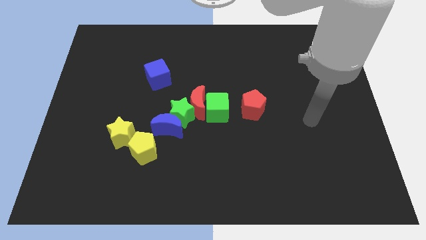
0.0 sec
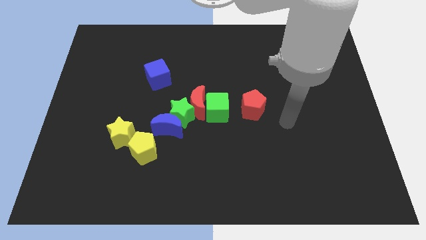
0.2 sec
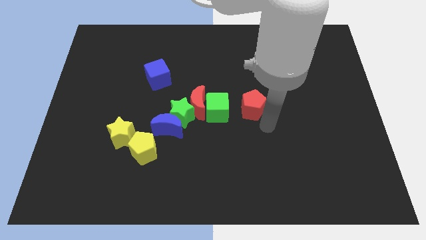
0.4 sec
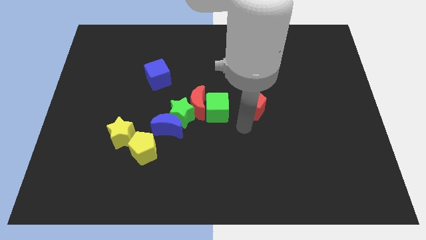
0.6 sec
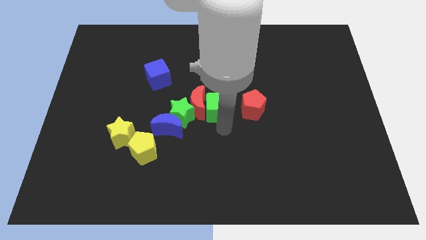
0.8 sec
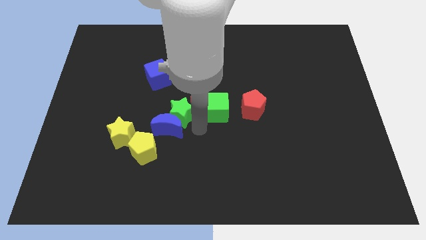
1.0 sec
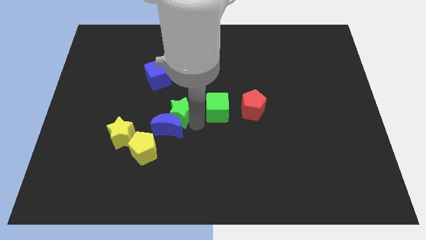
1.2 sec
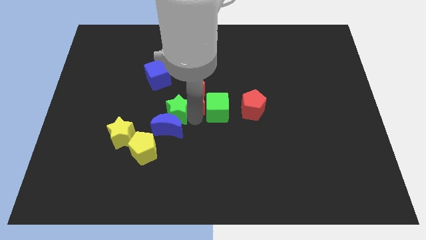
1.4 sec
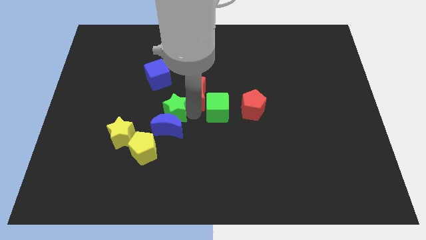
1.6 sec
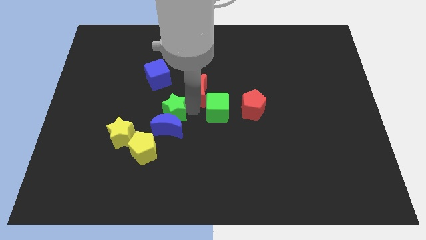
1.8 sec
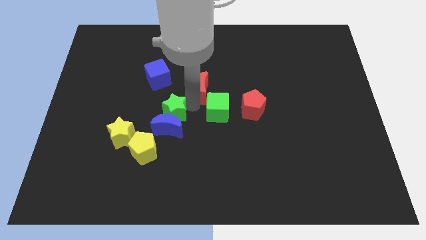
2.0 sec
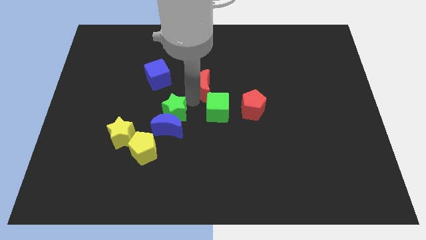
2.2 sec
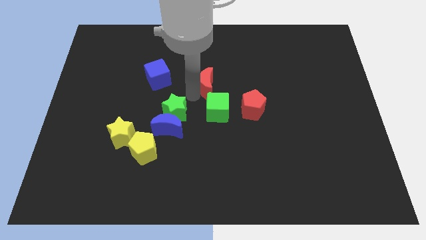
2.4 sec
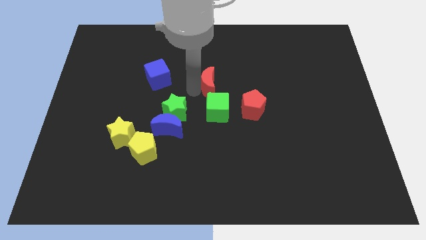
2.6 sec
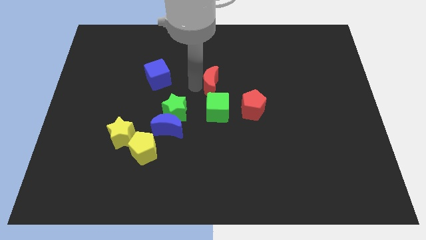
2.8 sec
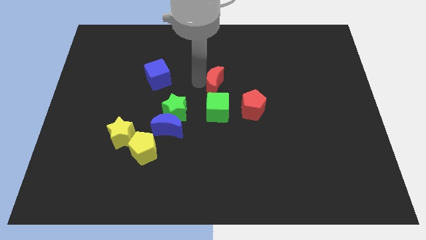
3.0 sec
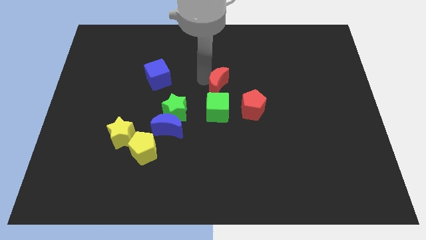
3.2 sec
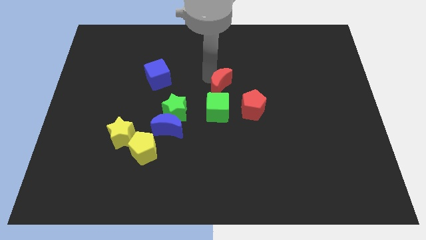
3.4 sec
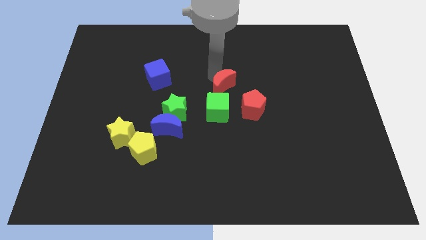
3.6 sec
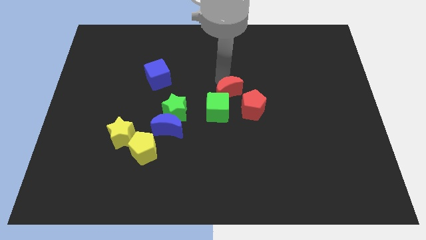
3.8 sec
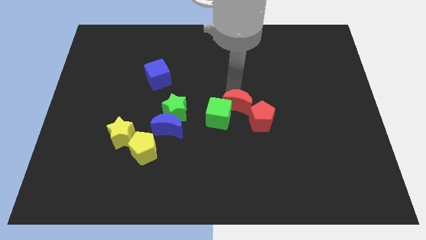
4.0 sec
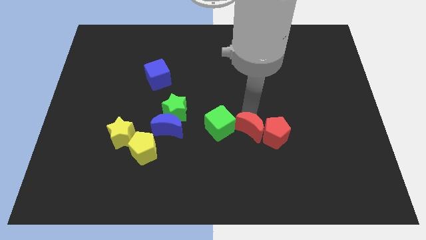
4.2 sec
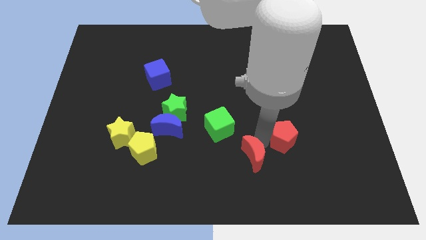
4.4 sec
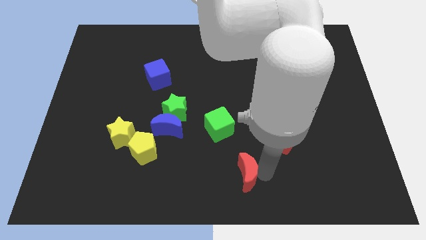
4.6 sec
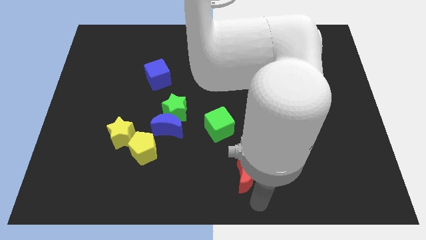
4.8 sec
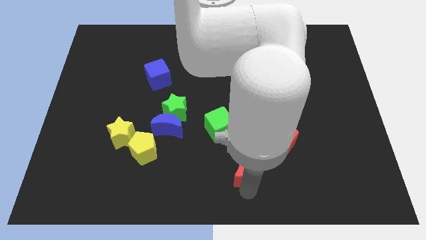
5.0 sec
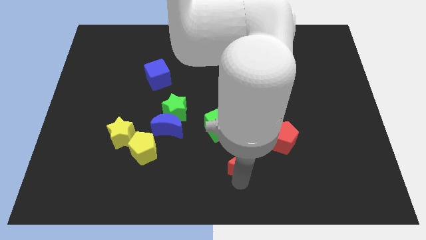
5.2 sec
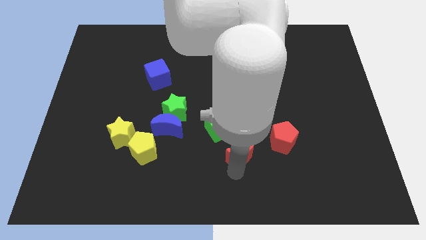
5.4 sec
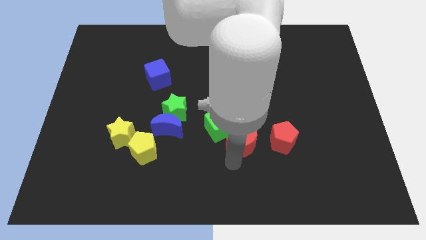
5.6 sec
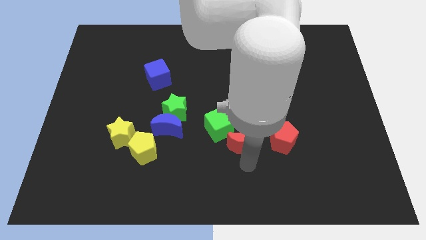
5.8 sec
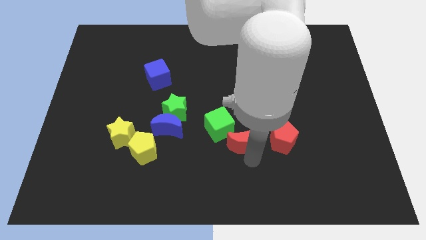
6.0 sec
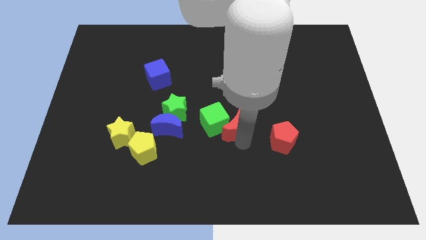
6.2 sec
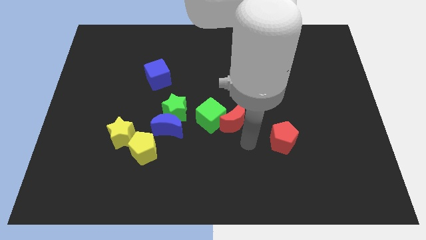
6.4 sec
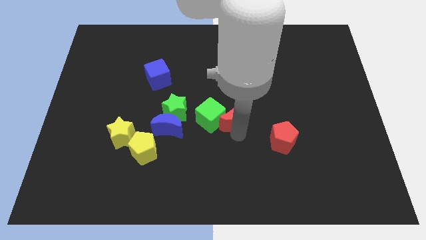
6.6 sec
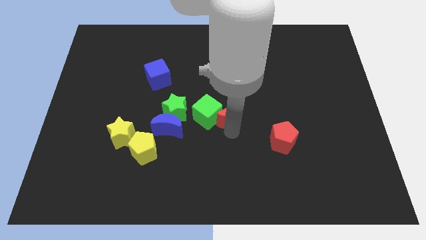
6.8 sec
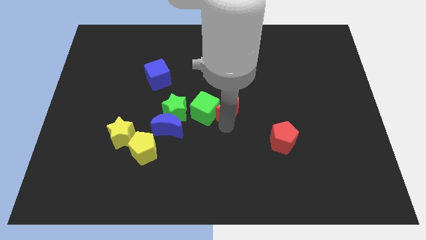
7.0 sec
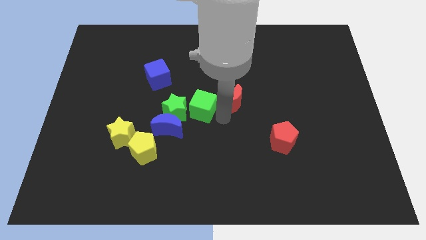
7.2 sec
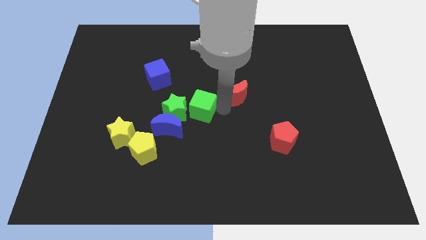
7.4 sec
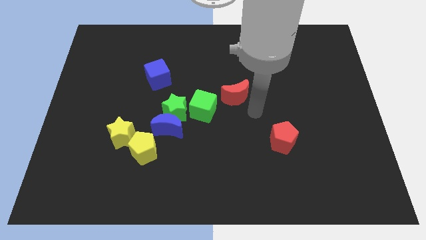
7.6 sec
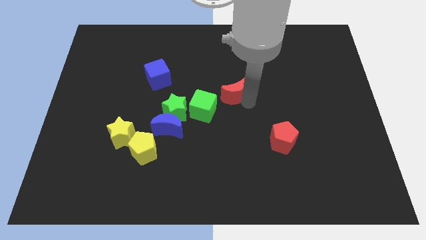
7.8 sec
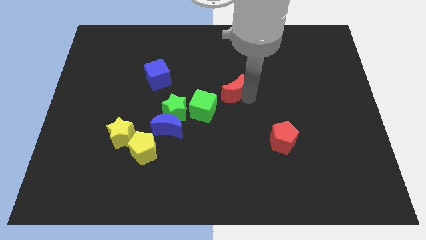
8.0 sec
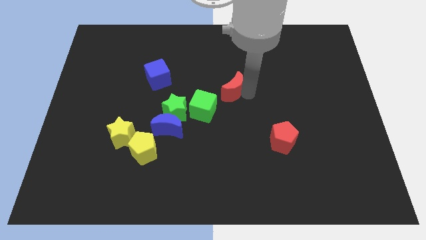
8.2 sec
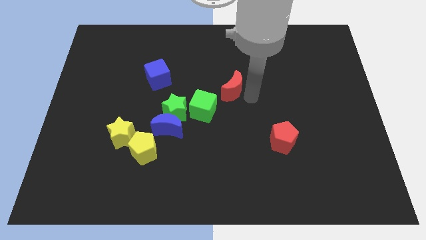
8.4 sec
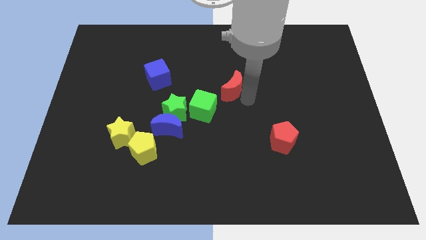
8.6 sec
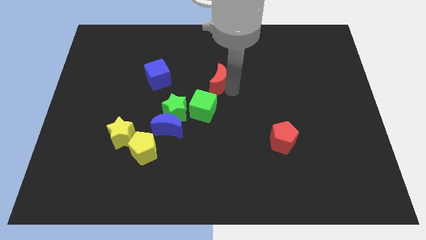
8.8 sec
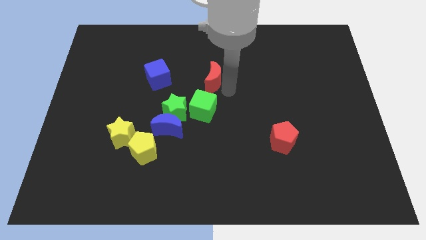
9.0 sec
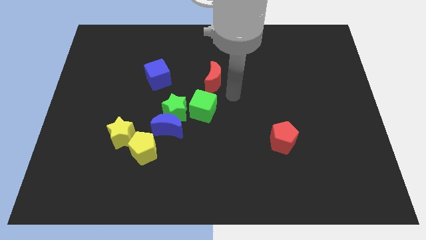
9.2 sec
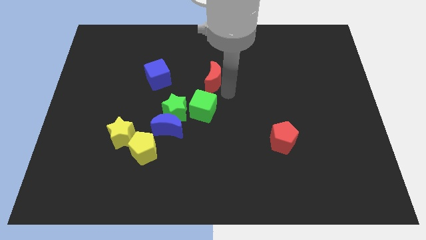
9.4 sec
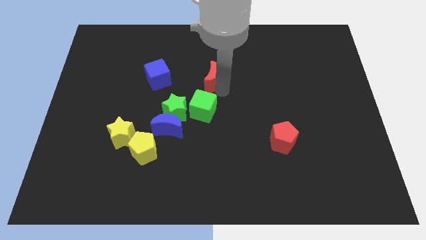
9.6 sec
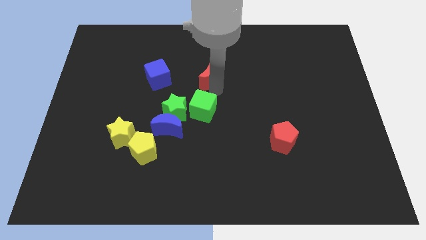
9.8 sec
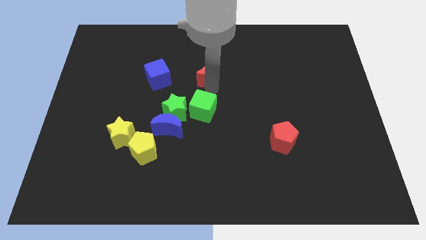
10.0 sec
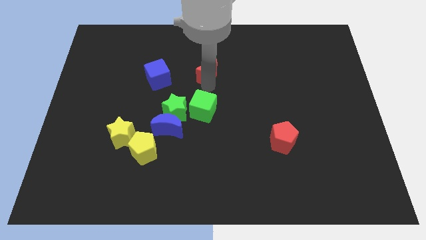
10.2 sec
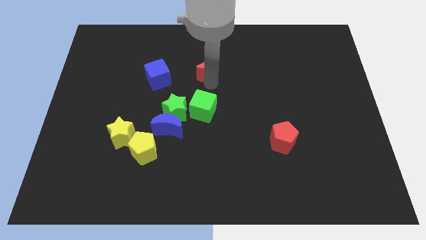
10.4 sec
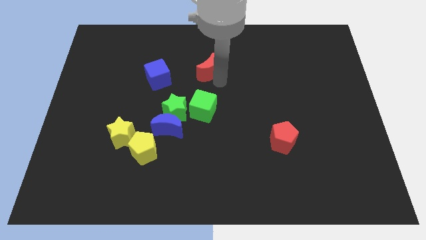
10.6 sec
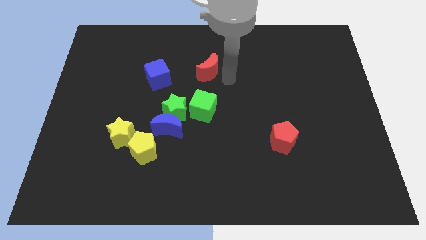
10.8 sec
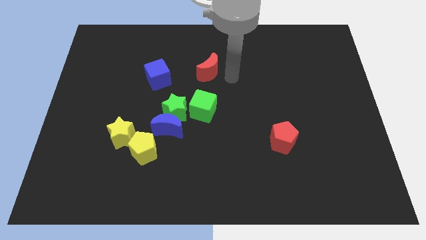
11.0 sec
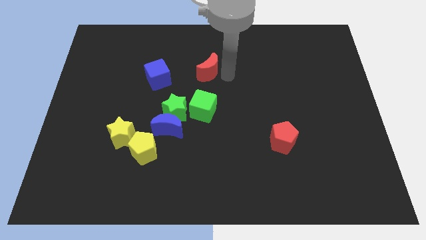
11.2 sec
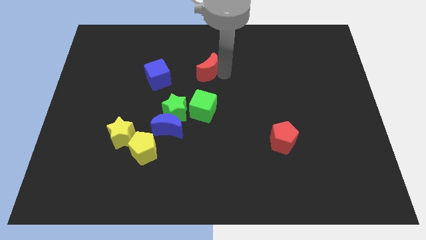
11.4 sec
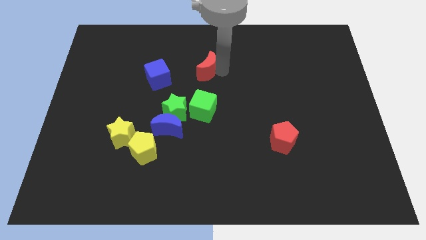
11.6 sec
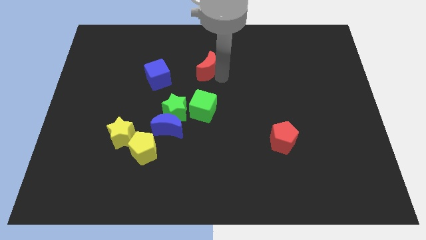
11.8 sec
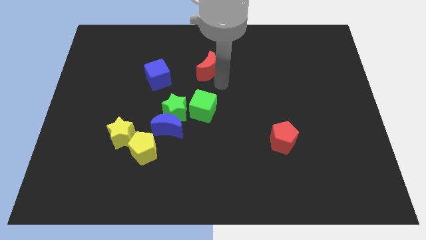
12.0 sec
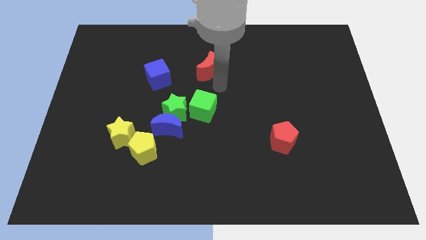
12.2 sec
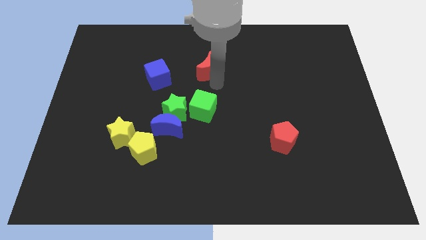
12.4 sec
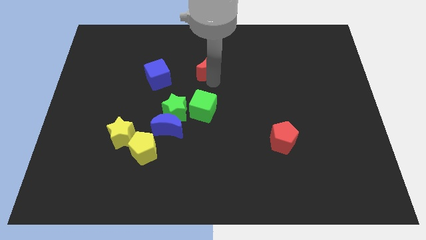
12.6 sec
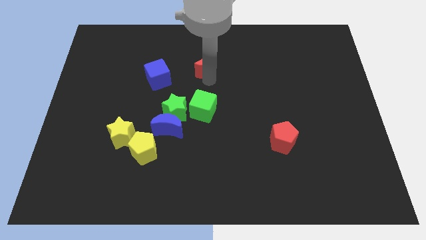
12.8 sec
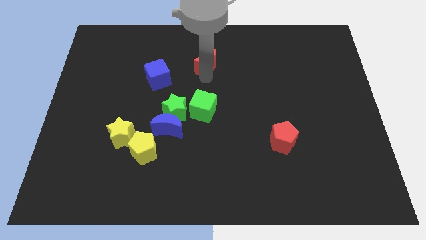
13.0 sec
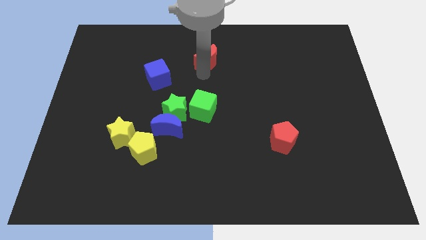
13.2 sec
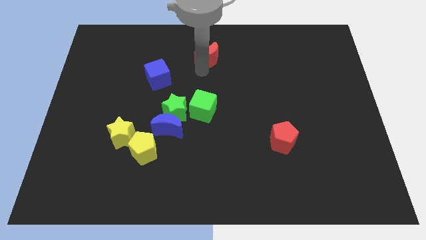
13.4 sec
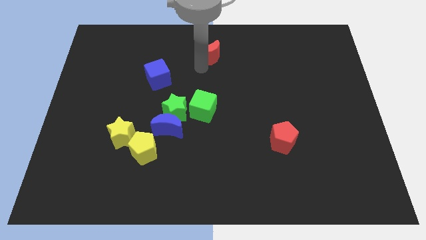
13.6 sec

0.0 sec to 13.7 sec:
push the red moon to the top side
